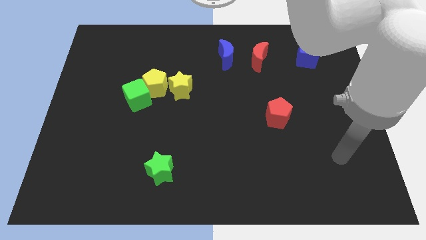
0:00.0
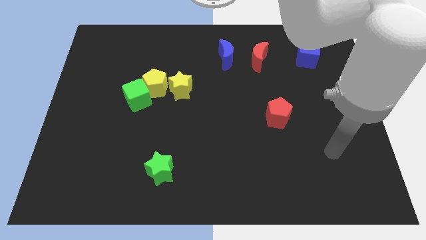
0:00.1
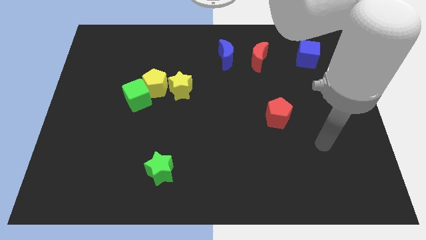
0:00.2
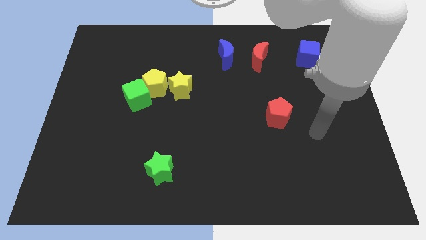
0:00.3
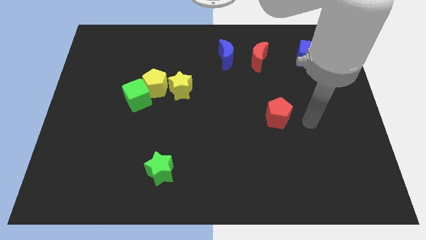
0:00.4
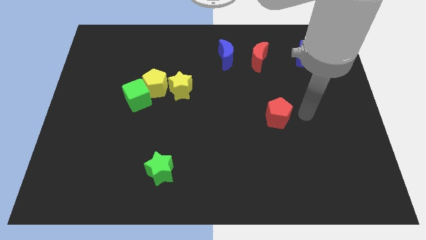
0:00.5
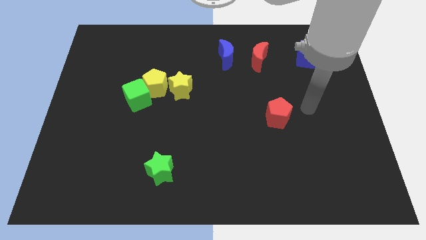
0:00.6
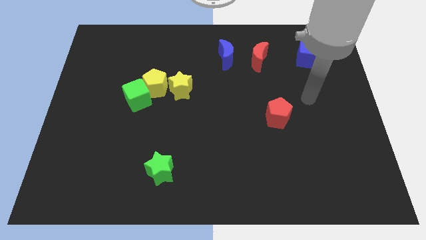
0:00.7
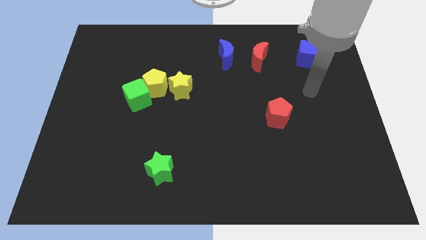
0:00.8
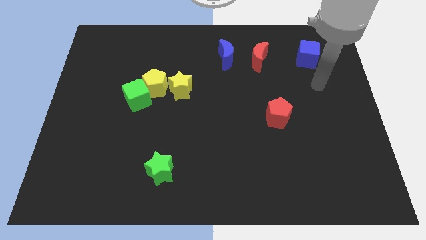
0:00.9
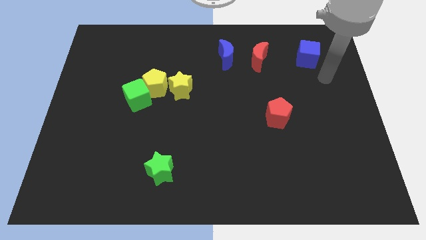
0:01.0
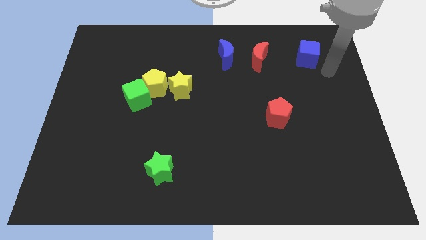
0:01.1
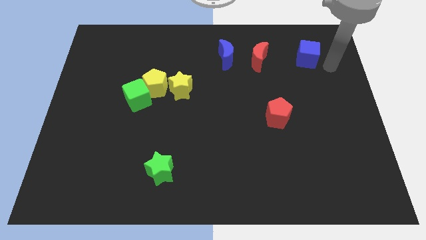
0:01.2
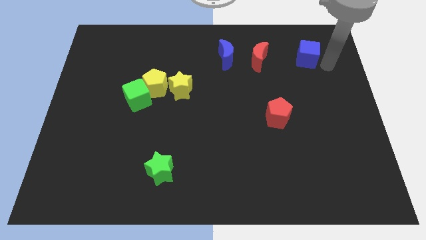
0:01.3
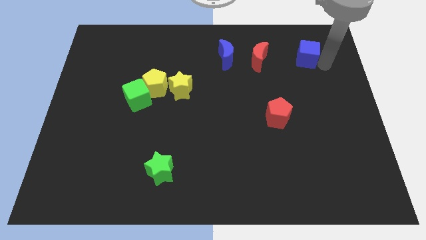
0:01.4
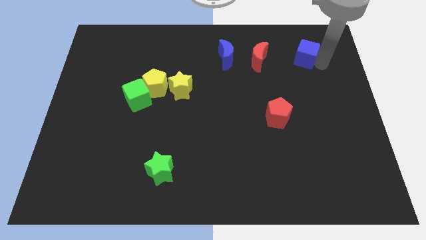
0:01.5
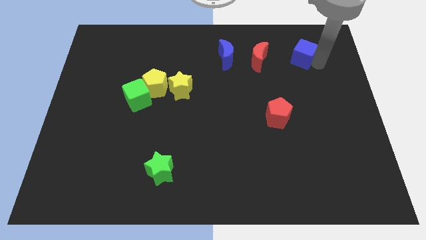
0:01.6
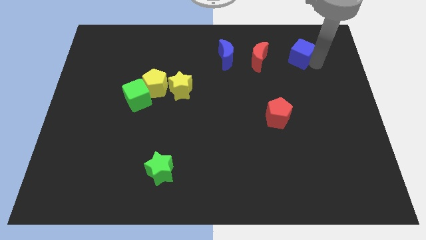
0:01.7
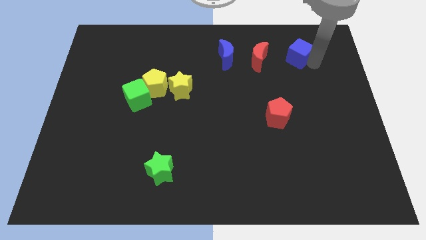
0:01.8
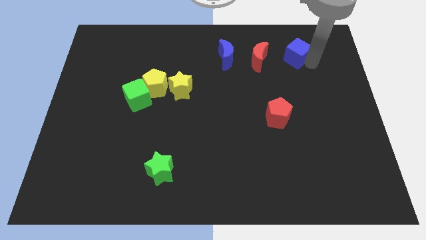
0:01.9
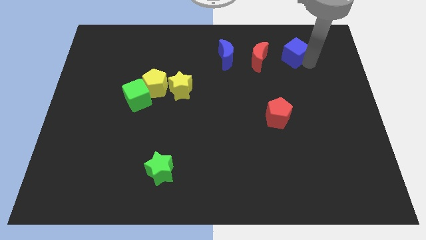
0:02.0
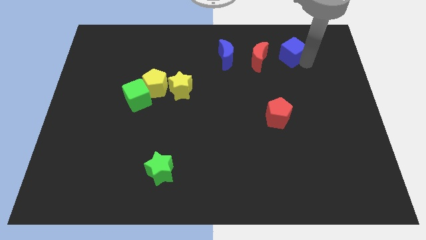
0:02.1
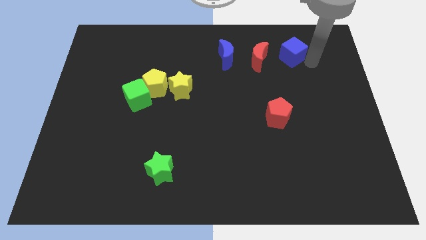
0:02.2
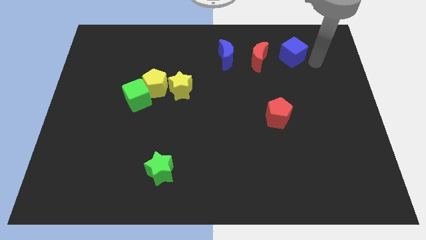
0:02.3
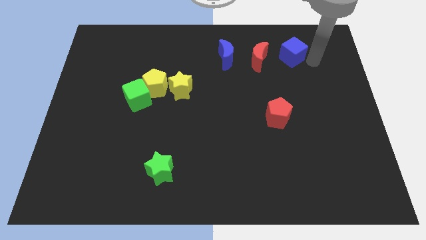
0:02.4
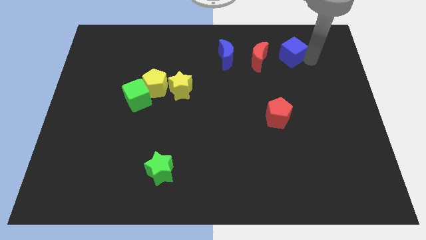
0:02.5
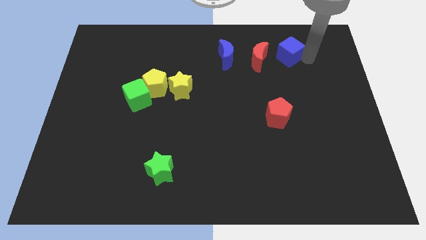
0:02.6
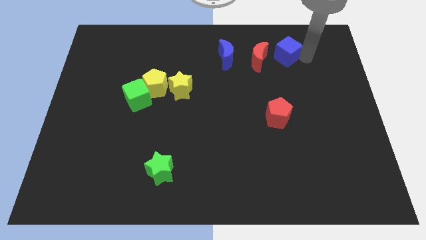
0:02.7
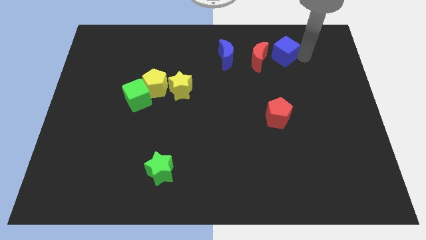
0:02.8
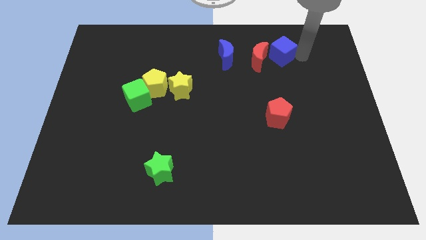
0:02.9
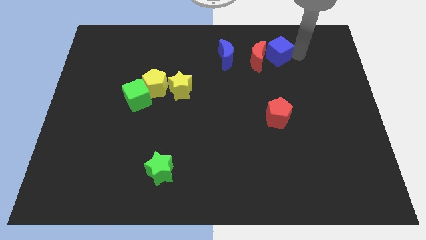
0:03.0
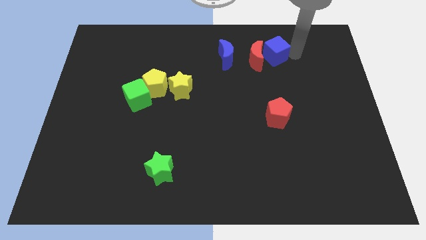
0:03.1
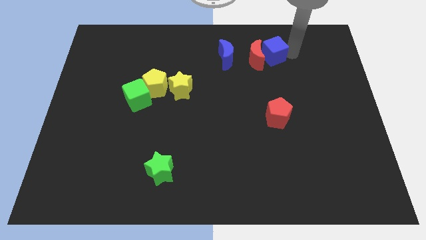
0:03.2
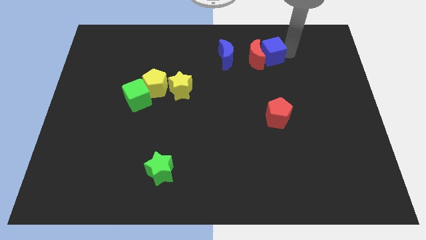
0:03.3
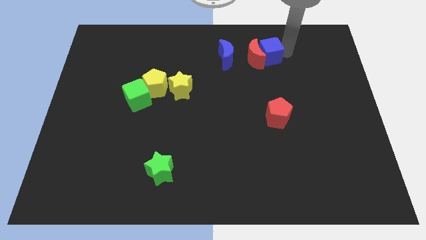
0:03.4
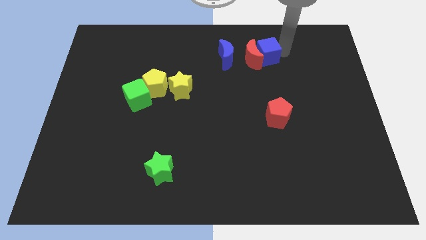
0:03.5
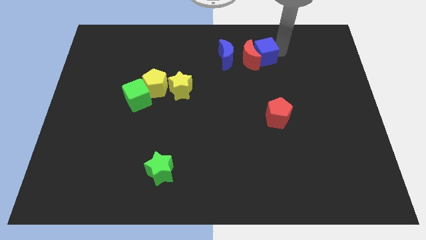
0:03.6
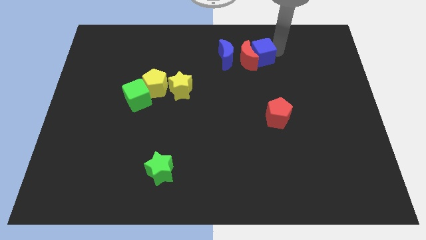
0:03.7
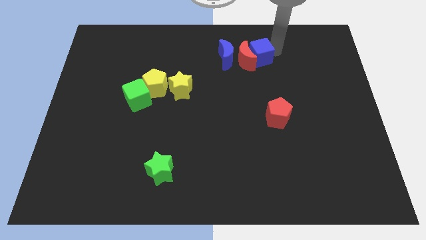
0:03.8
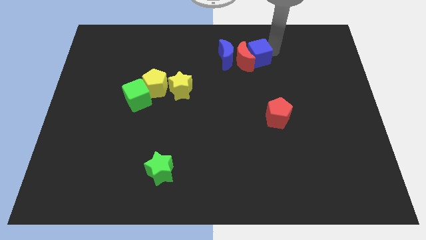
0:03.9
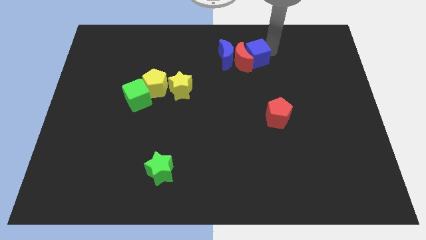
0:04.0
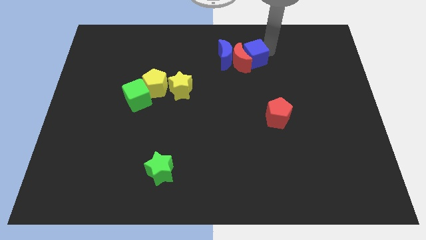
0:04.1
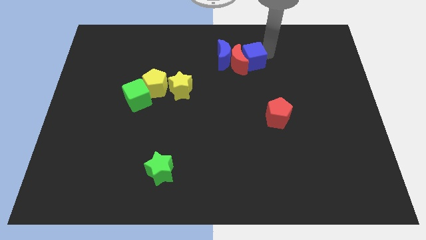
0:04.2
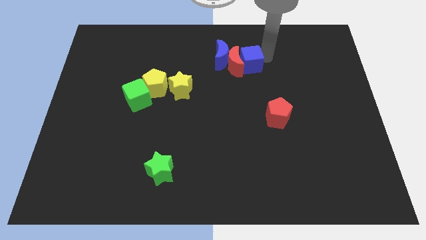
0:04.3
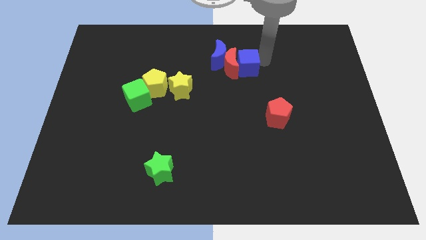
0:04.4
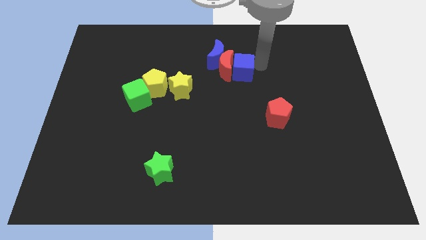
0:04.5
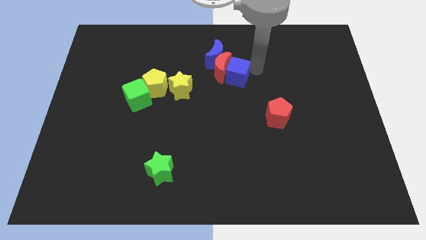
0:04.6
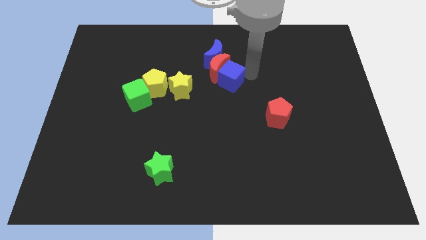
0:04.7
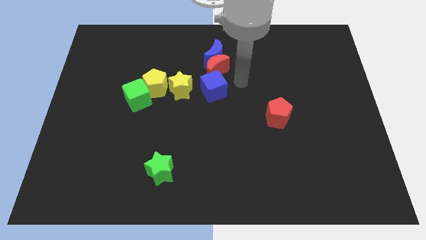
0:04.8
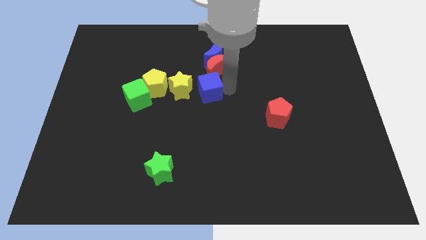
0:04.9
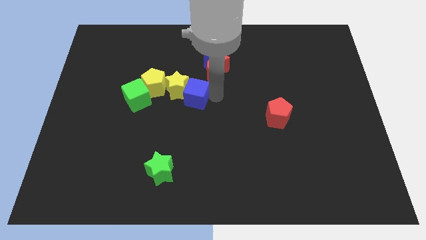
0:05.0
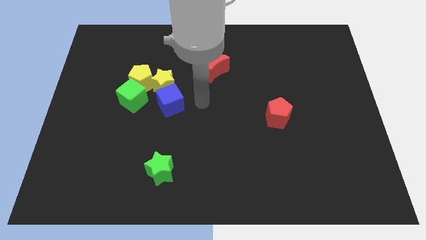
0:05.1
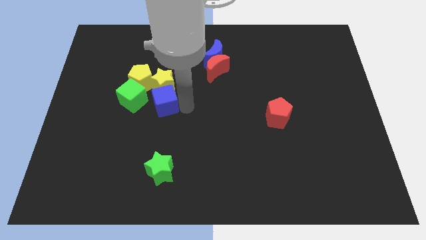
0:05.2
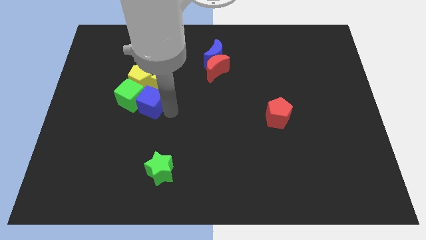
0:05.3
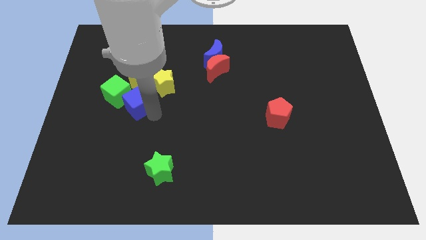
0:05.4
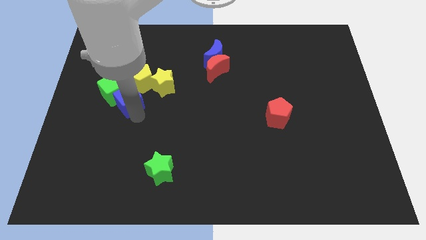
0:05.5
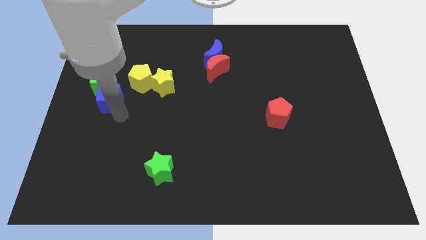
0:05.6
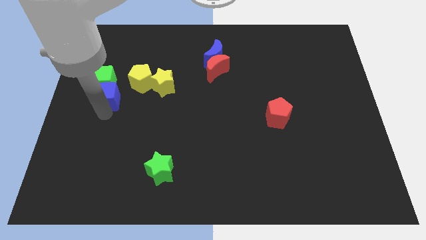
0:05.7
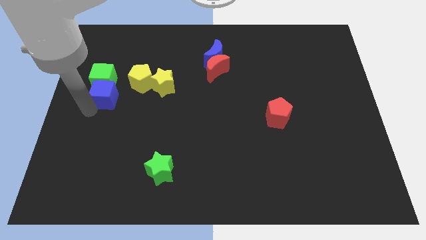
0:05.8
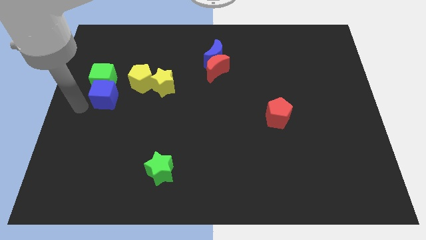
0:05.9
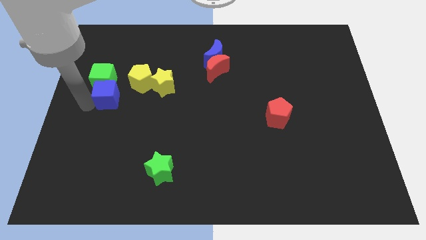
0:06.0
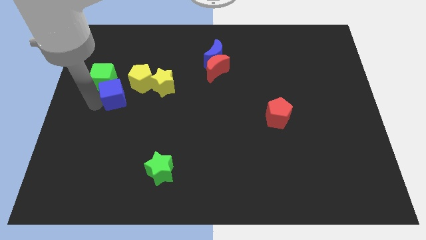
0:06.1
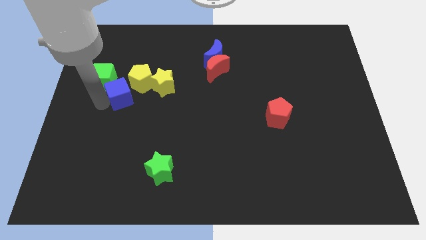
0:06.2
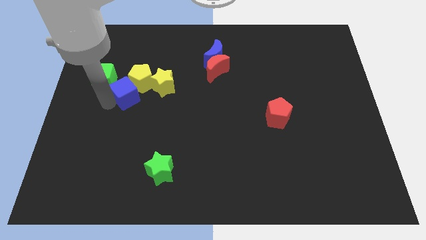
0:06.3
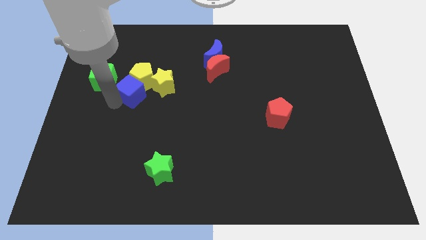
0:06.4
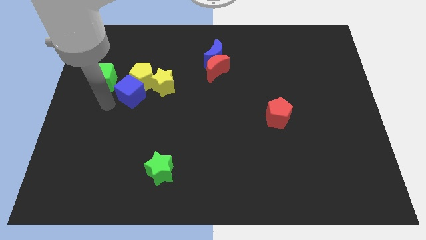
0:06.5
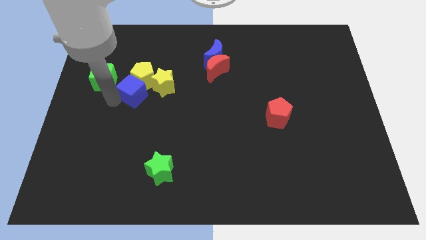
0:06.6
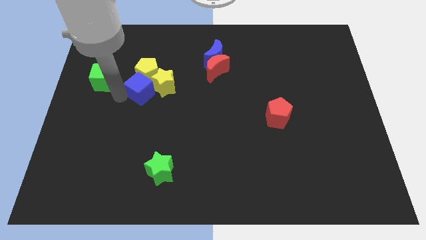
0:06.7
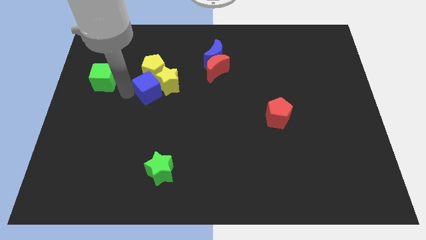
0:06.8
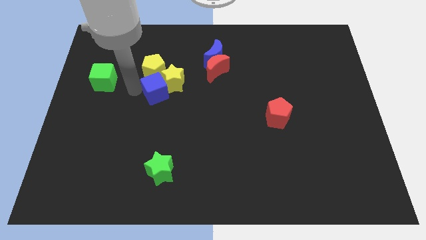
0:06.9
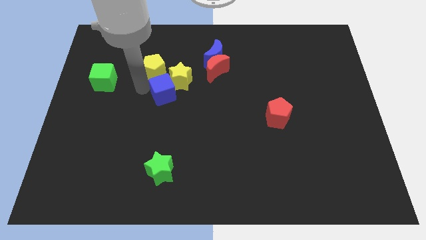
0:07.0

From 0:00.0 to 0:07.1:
move the blue cube left

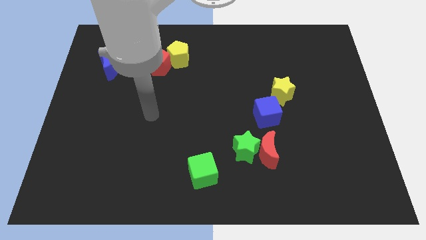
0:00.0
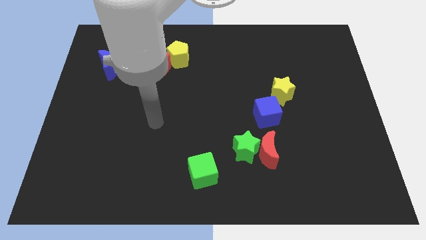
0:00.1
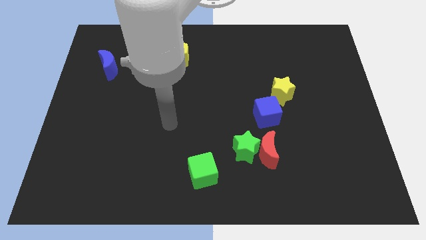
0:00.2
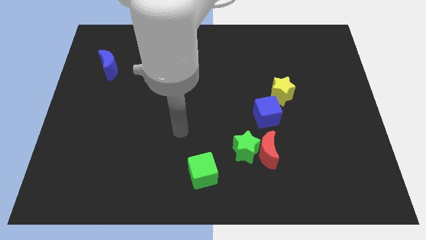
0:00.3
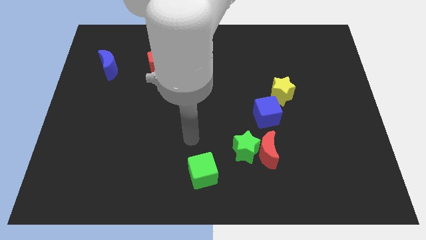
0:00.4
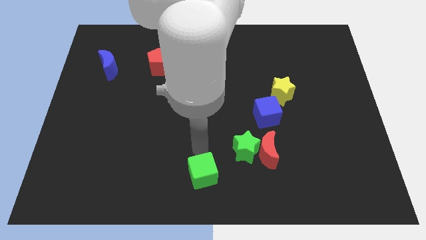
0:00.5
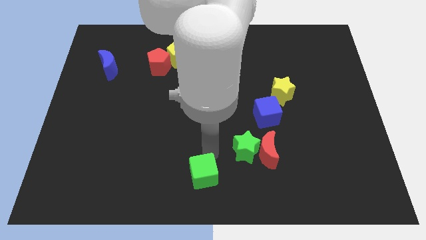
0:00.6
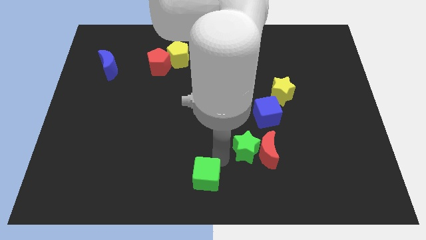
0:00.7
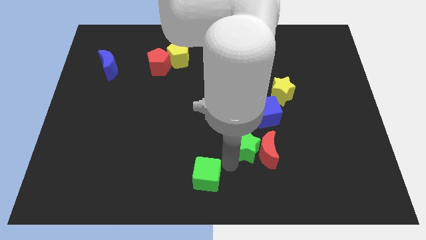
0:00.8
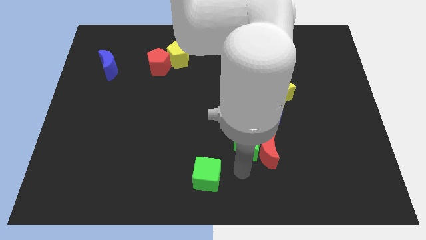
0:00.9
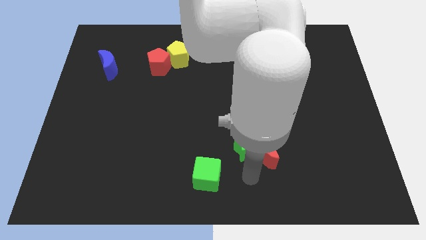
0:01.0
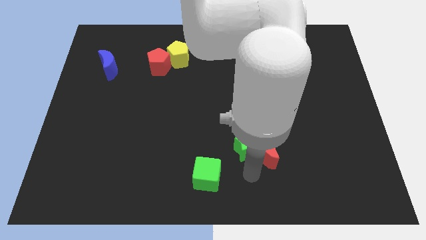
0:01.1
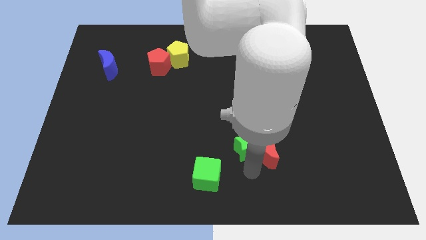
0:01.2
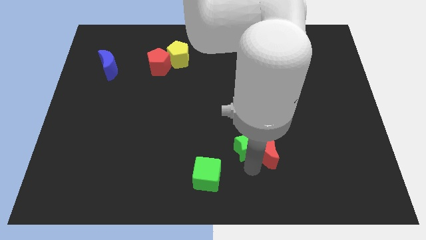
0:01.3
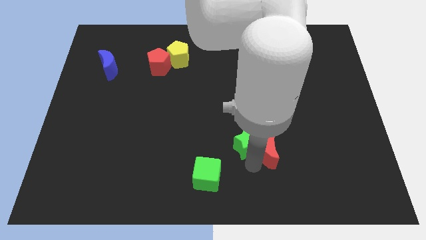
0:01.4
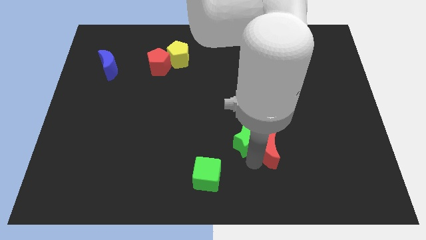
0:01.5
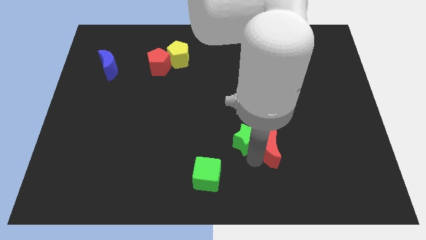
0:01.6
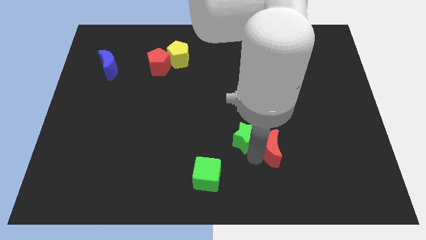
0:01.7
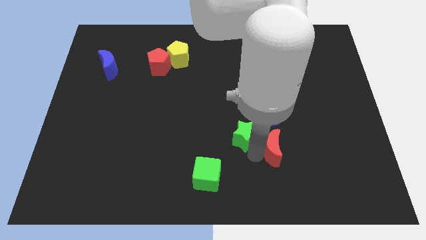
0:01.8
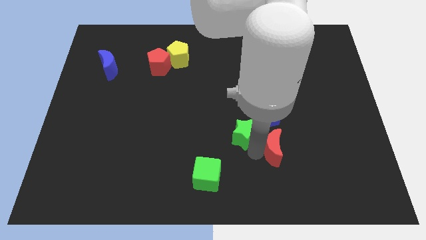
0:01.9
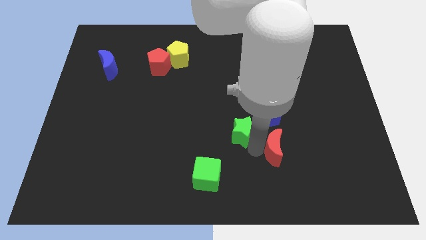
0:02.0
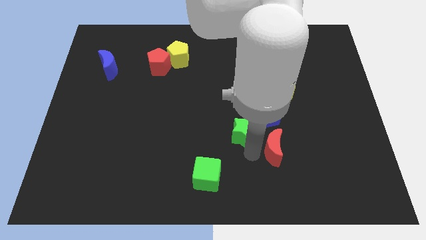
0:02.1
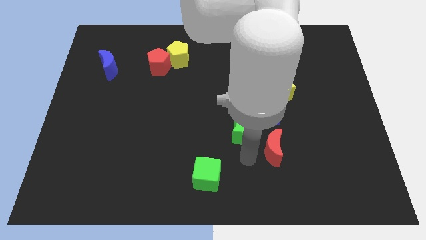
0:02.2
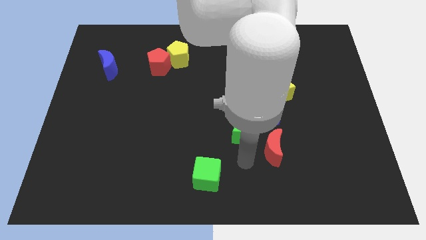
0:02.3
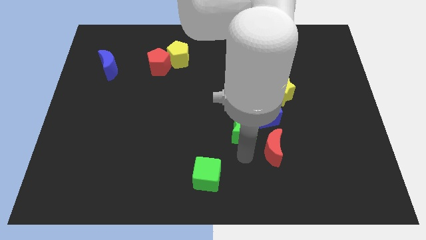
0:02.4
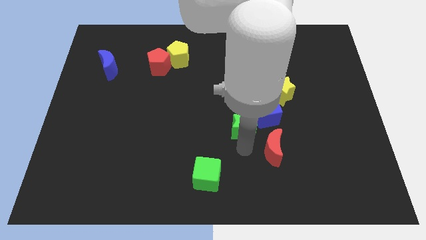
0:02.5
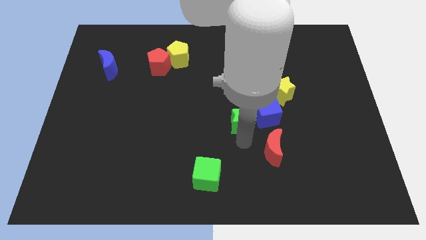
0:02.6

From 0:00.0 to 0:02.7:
slightly move the green star upwards
